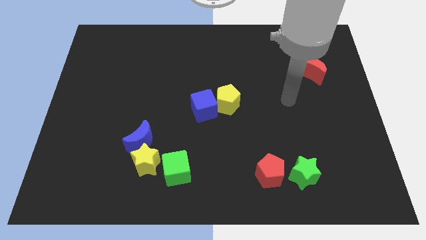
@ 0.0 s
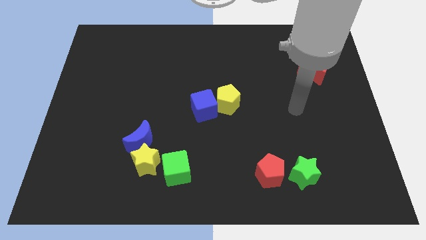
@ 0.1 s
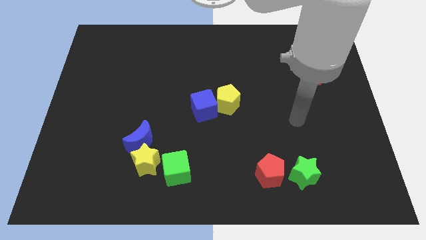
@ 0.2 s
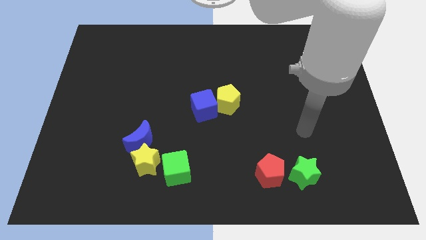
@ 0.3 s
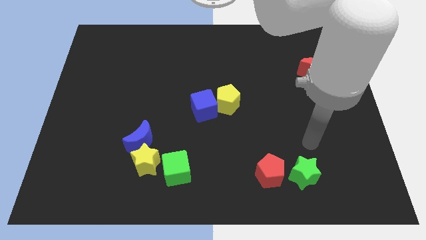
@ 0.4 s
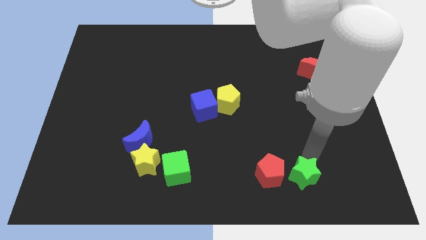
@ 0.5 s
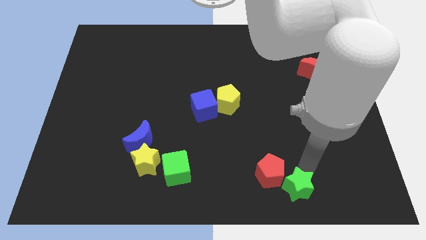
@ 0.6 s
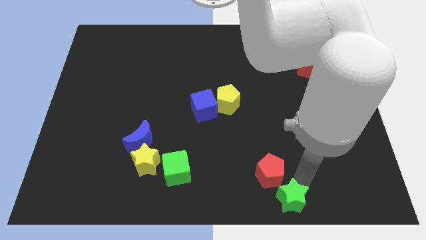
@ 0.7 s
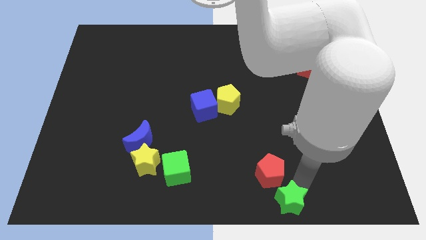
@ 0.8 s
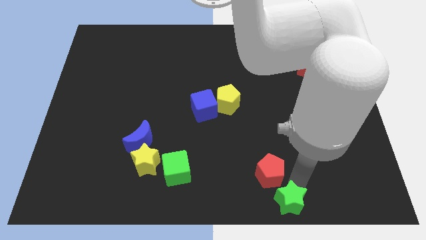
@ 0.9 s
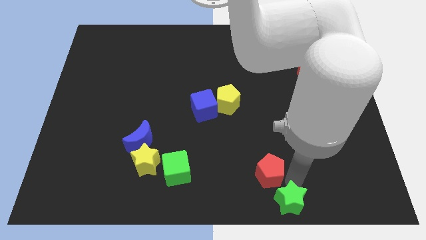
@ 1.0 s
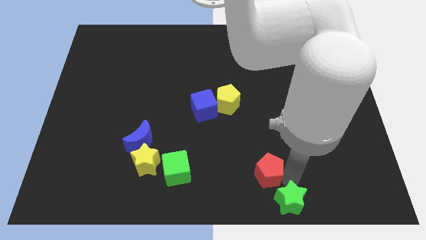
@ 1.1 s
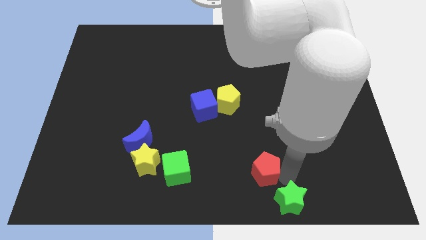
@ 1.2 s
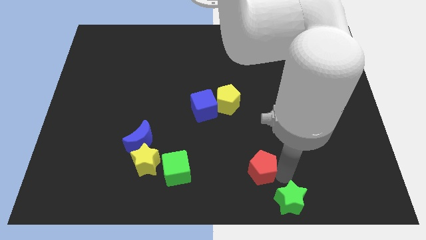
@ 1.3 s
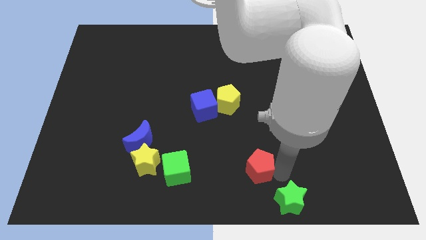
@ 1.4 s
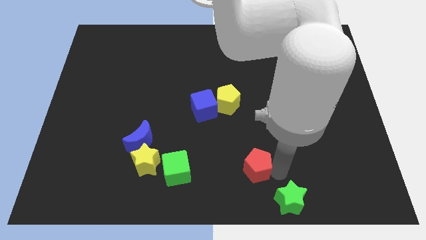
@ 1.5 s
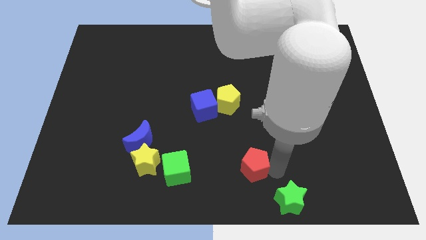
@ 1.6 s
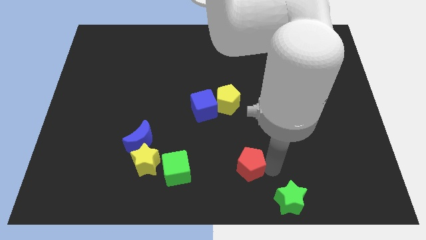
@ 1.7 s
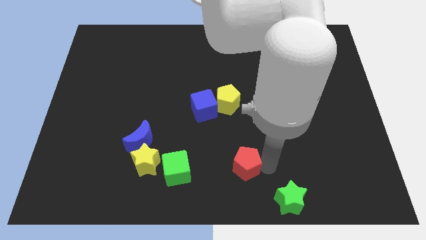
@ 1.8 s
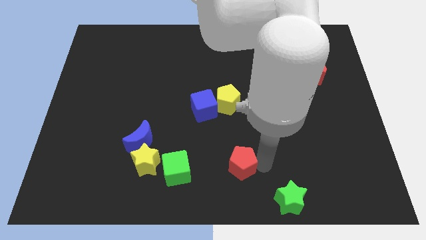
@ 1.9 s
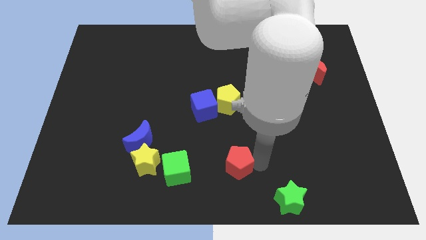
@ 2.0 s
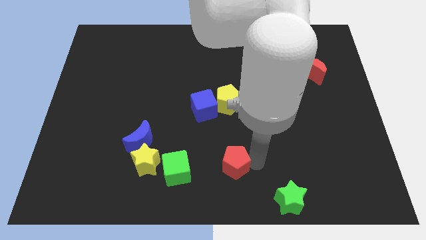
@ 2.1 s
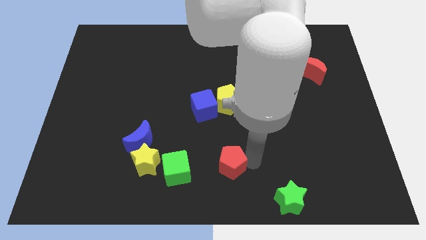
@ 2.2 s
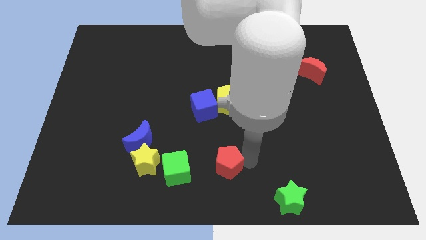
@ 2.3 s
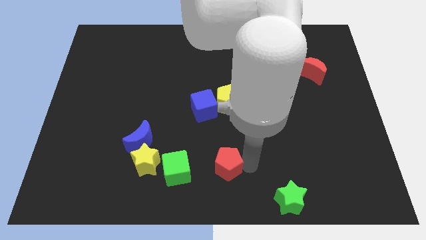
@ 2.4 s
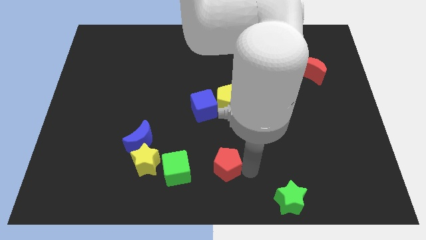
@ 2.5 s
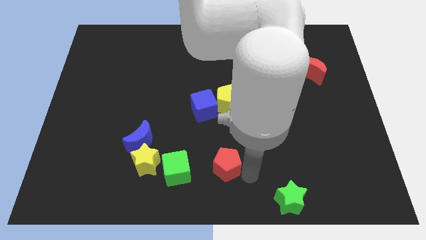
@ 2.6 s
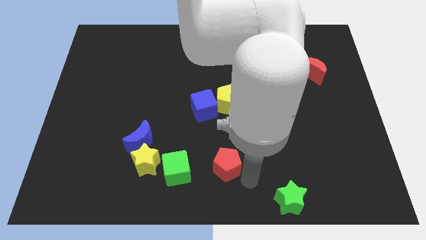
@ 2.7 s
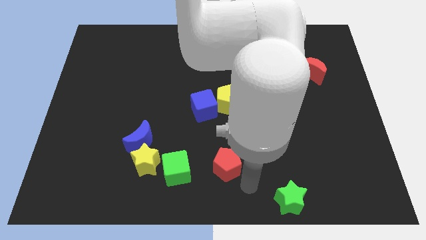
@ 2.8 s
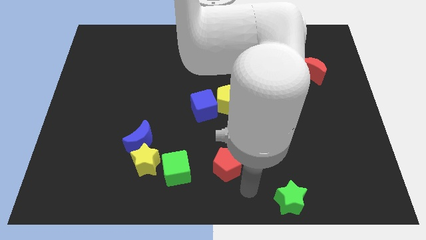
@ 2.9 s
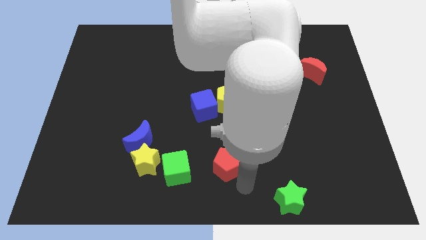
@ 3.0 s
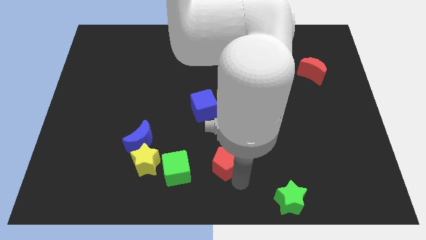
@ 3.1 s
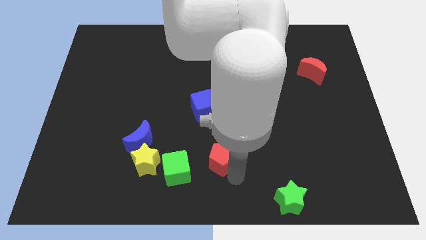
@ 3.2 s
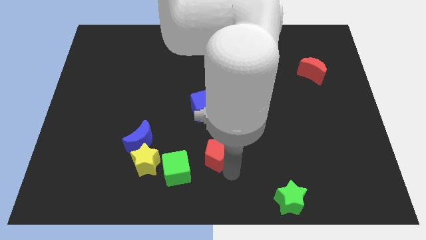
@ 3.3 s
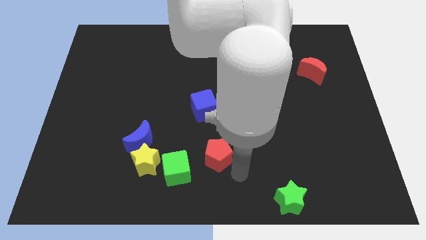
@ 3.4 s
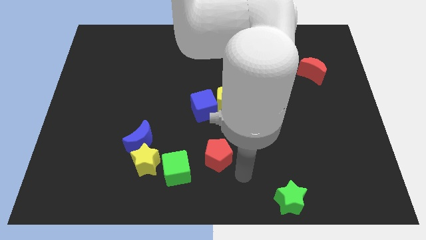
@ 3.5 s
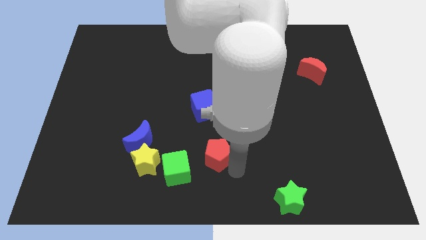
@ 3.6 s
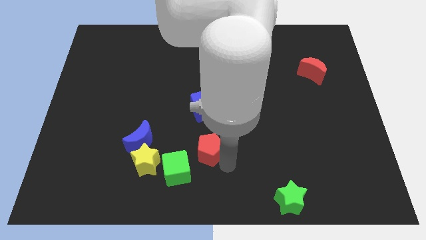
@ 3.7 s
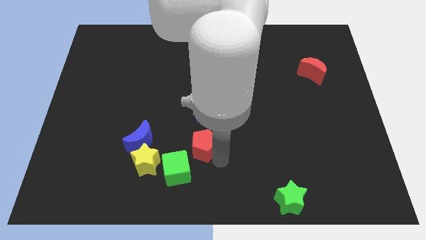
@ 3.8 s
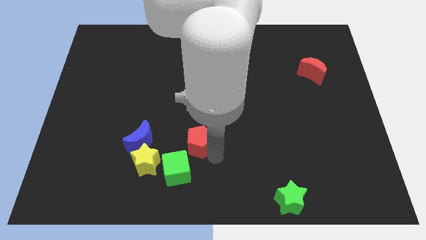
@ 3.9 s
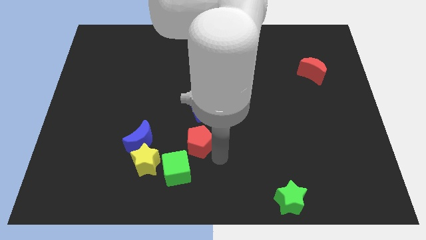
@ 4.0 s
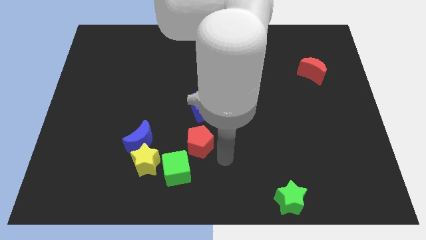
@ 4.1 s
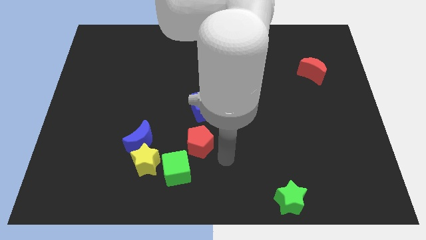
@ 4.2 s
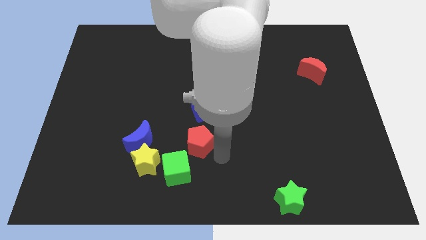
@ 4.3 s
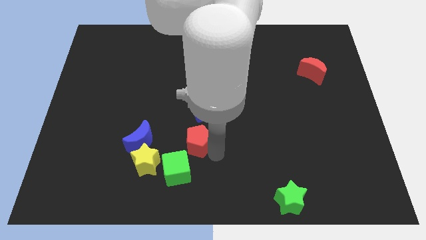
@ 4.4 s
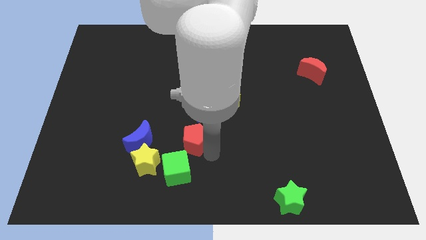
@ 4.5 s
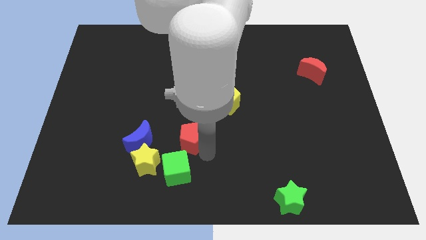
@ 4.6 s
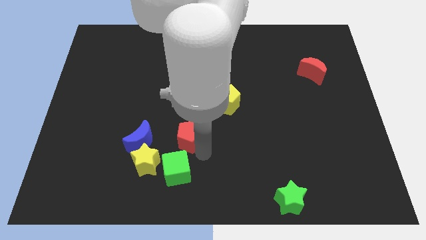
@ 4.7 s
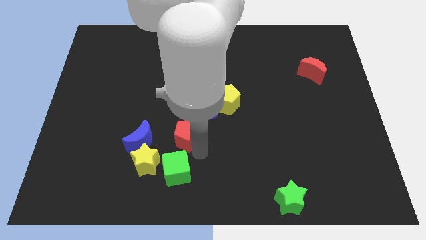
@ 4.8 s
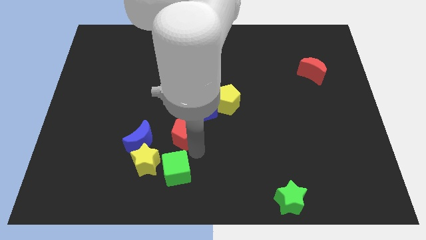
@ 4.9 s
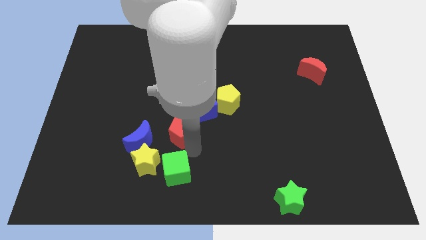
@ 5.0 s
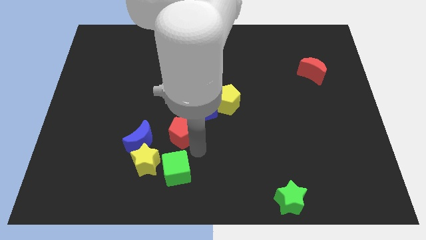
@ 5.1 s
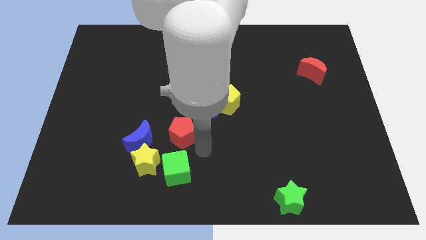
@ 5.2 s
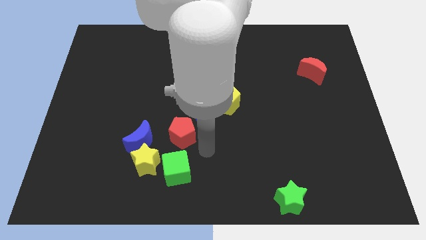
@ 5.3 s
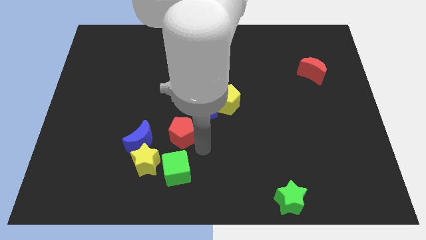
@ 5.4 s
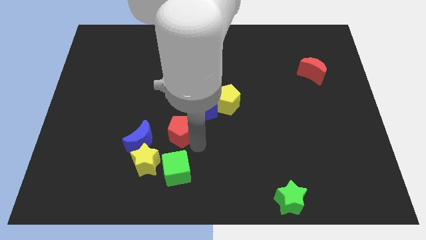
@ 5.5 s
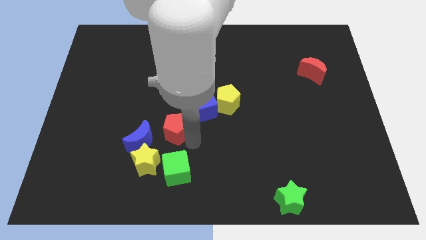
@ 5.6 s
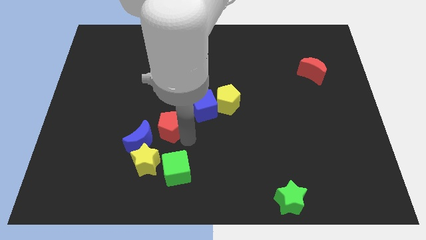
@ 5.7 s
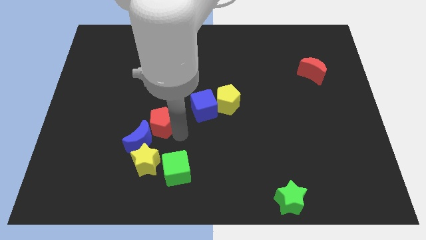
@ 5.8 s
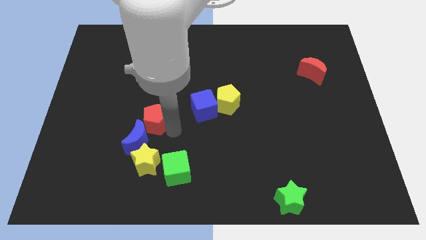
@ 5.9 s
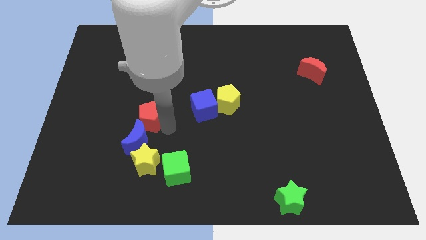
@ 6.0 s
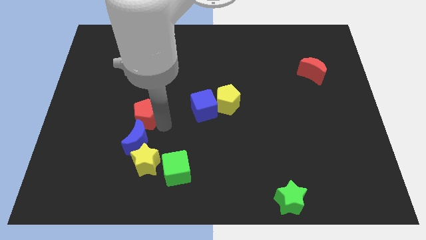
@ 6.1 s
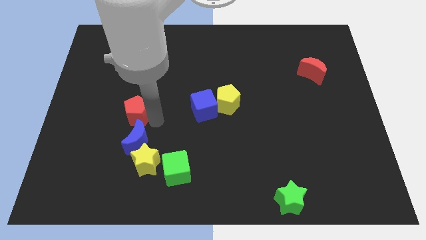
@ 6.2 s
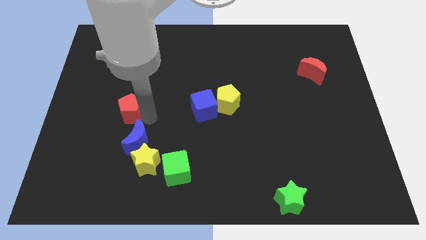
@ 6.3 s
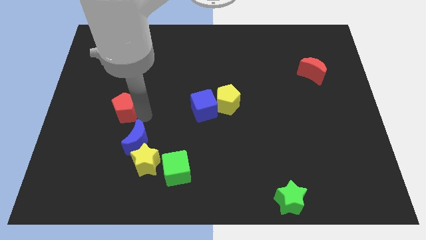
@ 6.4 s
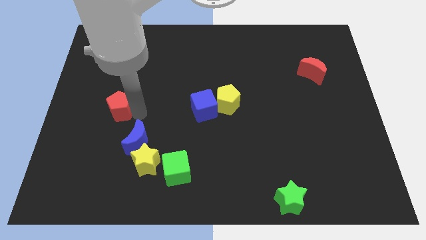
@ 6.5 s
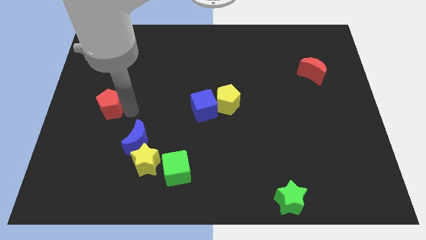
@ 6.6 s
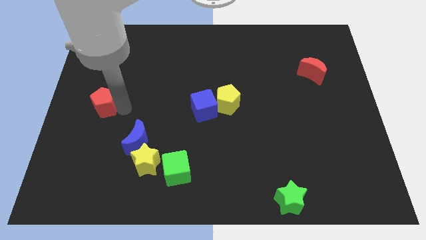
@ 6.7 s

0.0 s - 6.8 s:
move the red pentagon to the center left
